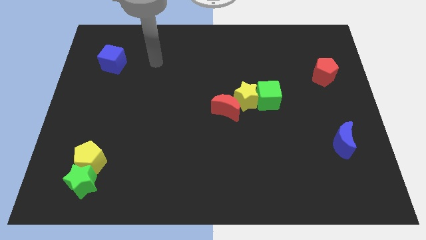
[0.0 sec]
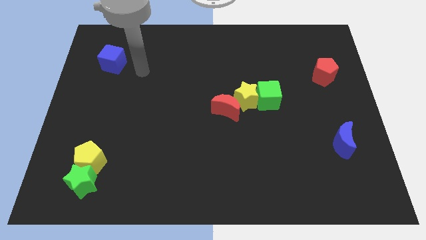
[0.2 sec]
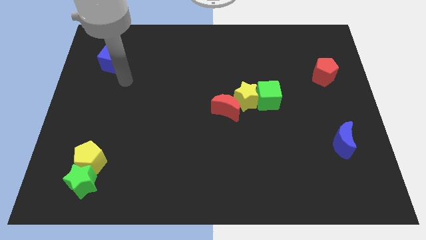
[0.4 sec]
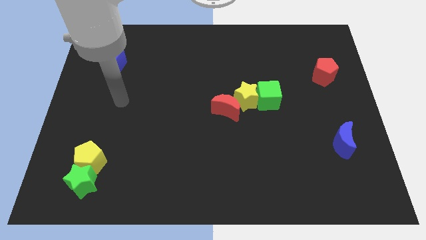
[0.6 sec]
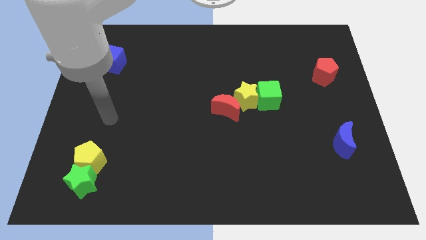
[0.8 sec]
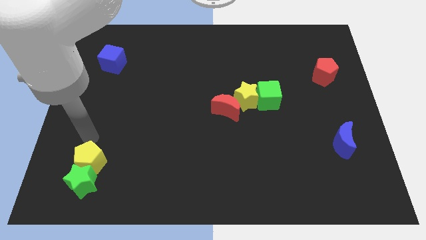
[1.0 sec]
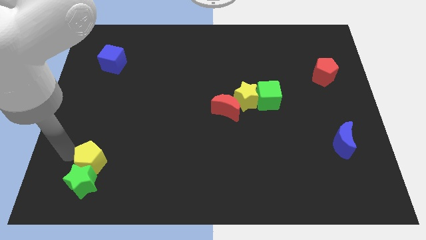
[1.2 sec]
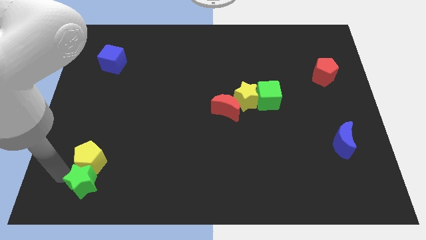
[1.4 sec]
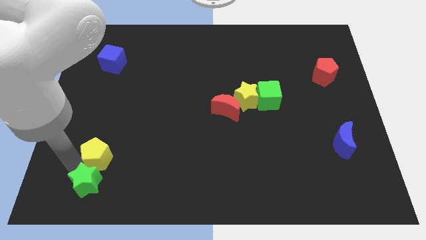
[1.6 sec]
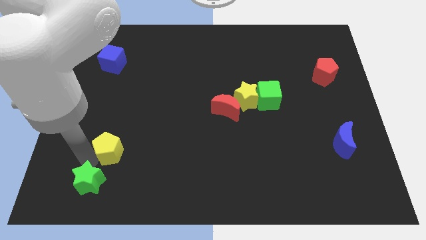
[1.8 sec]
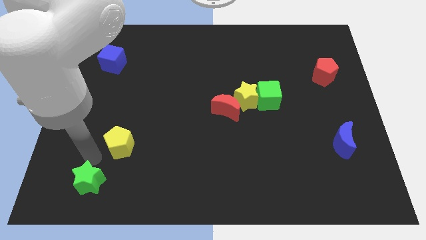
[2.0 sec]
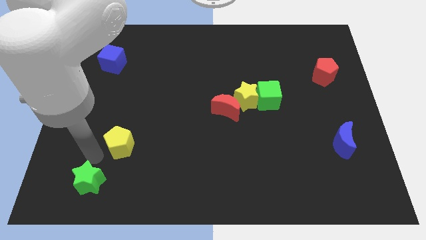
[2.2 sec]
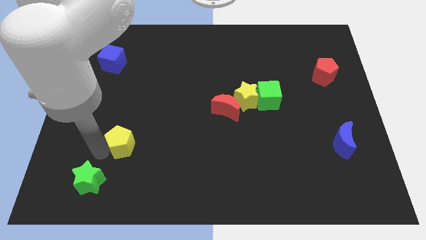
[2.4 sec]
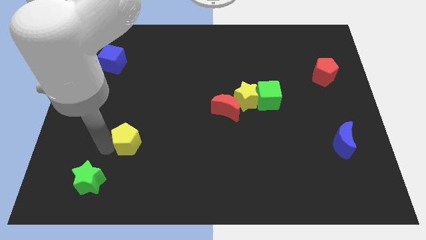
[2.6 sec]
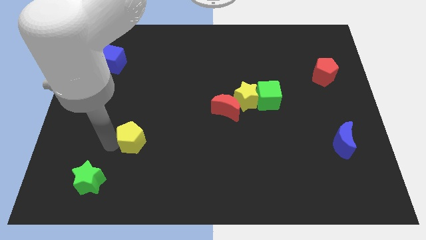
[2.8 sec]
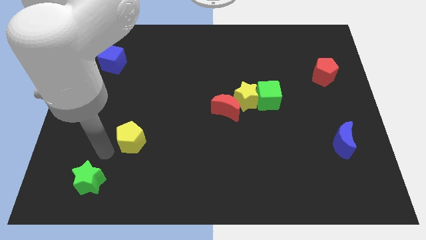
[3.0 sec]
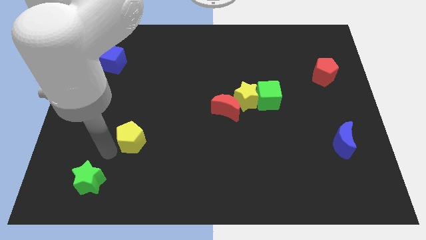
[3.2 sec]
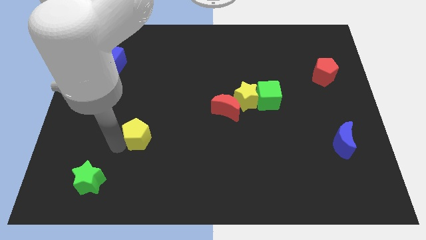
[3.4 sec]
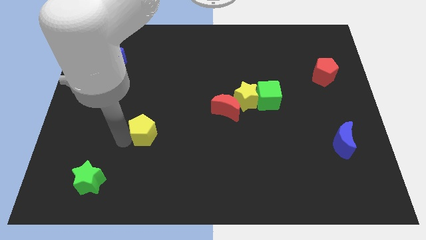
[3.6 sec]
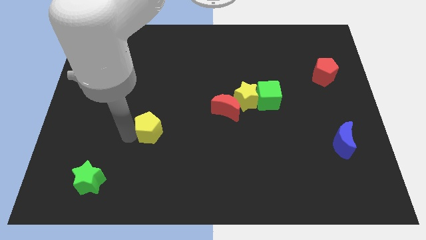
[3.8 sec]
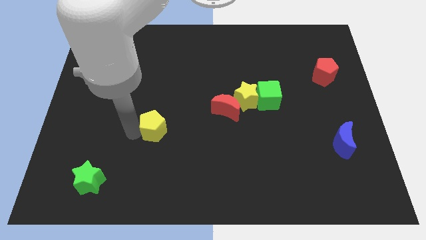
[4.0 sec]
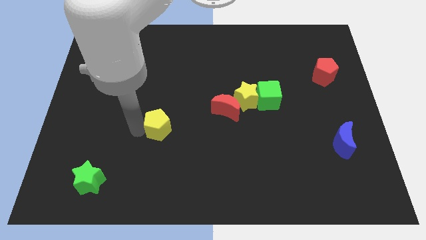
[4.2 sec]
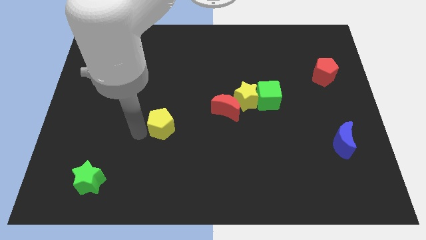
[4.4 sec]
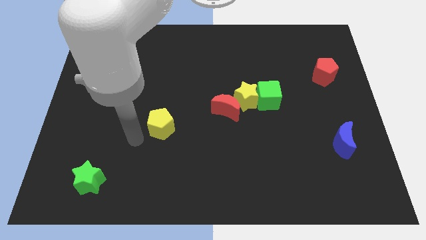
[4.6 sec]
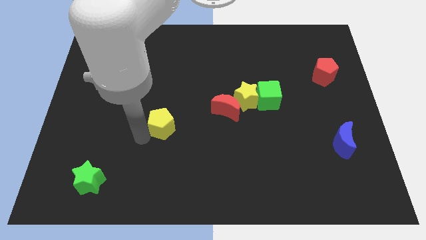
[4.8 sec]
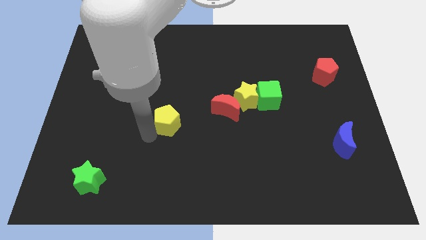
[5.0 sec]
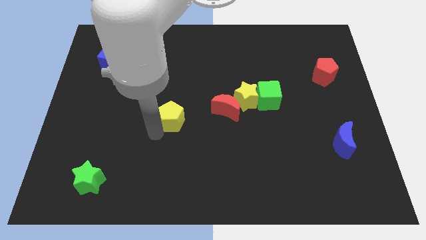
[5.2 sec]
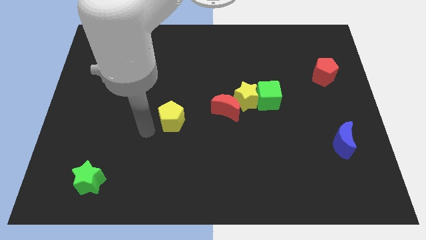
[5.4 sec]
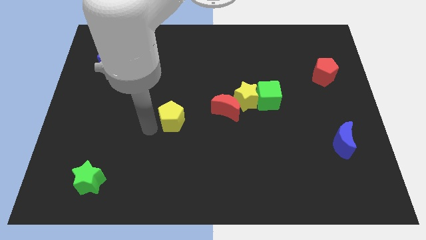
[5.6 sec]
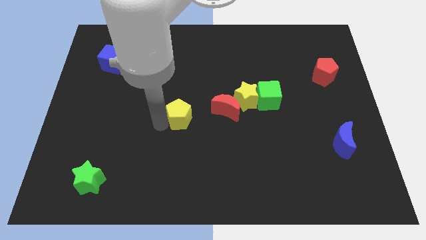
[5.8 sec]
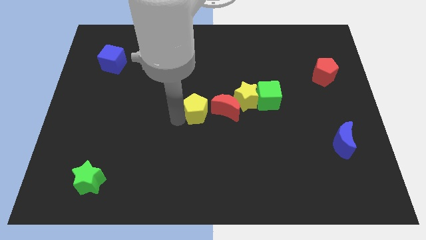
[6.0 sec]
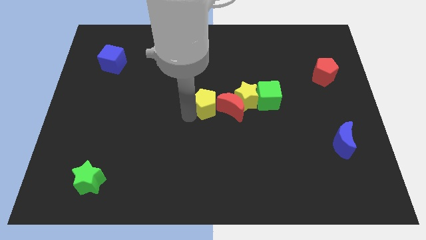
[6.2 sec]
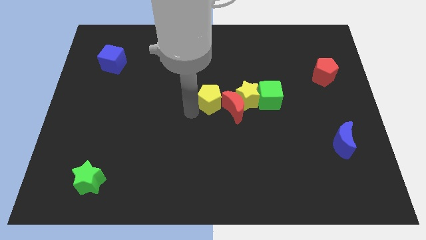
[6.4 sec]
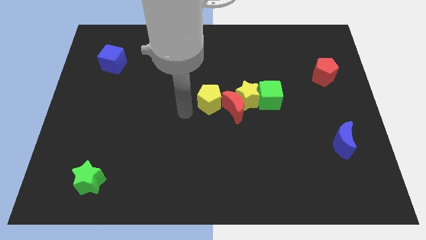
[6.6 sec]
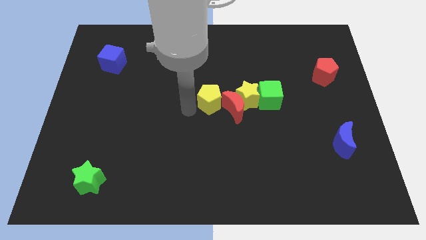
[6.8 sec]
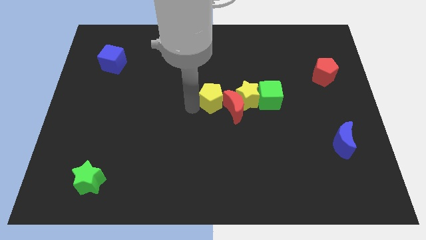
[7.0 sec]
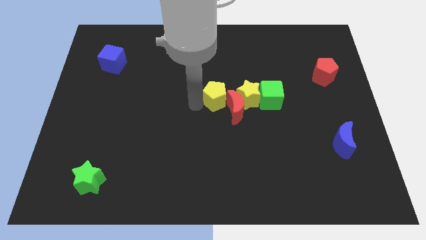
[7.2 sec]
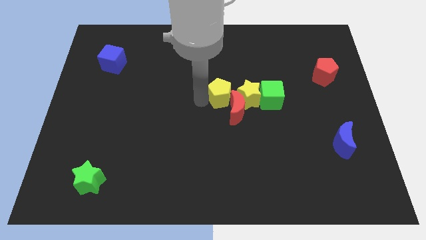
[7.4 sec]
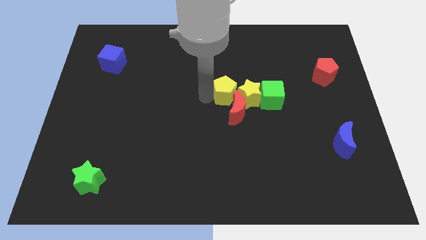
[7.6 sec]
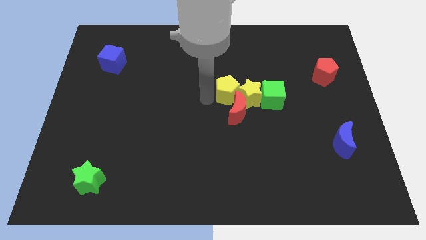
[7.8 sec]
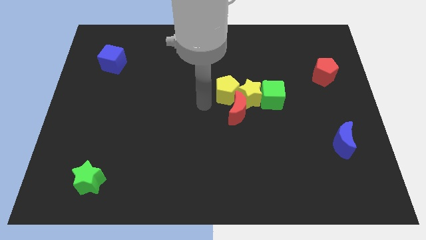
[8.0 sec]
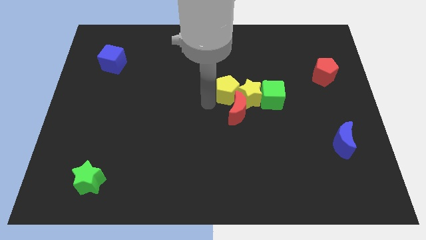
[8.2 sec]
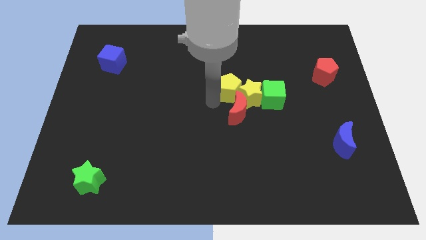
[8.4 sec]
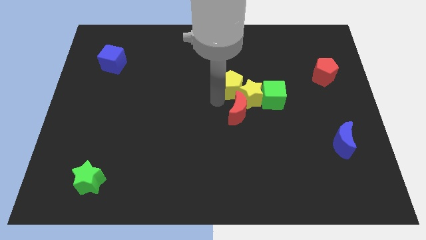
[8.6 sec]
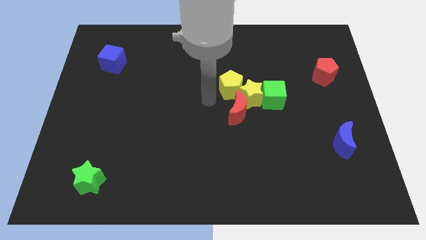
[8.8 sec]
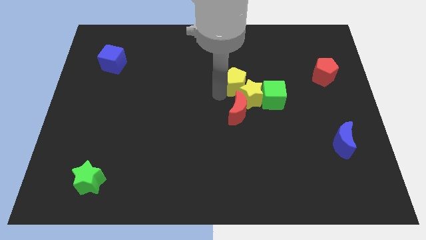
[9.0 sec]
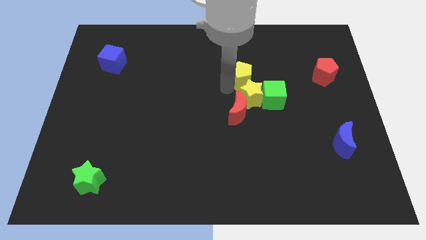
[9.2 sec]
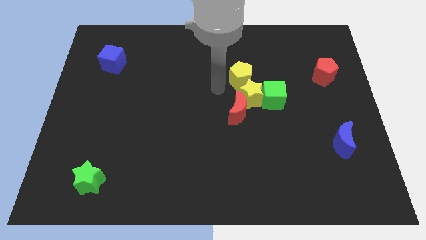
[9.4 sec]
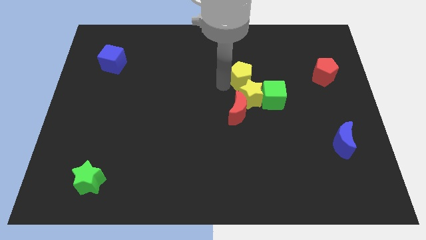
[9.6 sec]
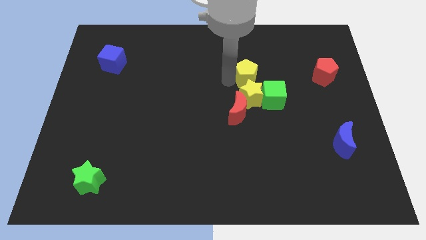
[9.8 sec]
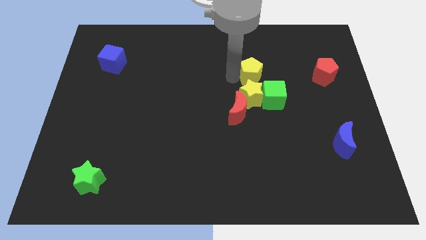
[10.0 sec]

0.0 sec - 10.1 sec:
slide the yellow pentagon above the green cube

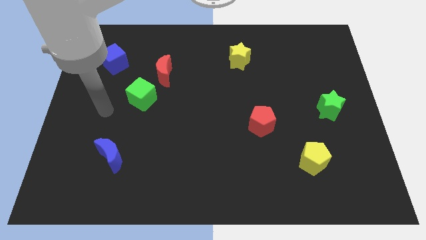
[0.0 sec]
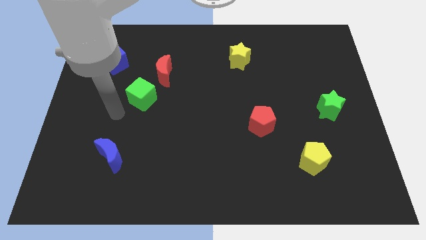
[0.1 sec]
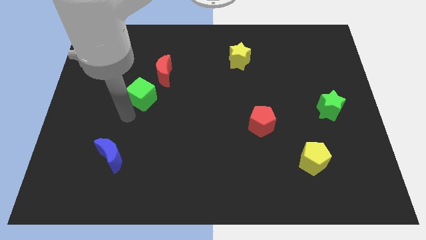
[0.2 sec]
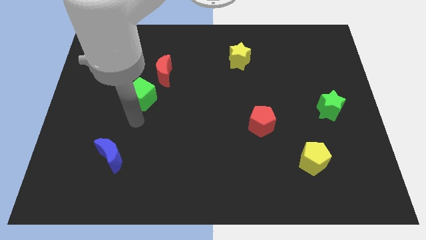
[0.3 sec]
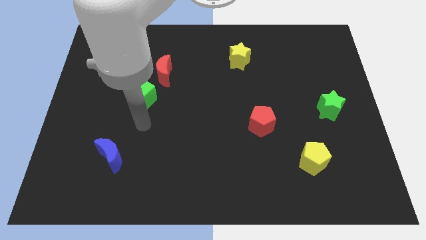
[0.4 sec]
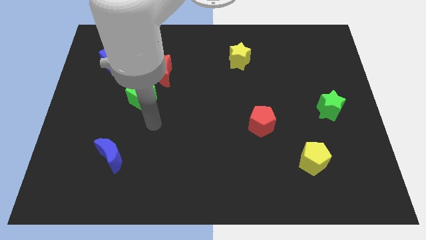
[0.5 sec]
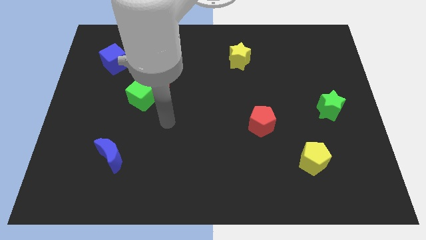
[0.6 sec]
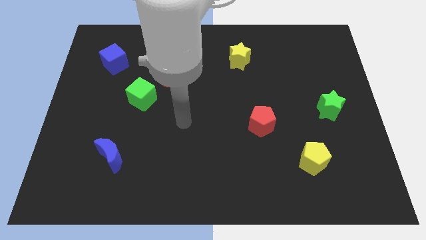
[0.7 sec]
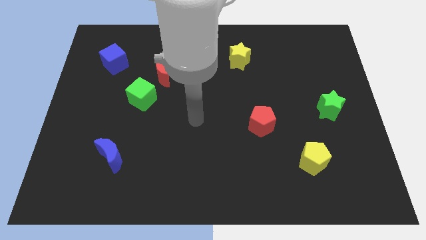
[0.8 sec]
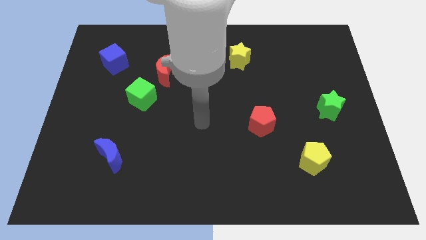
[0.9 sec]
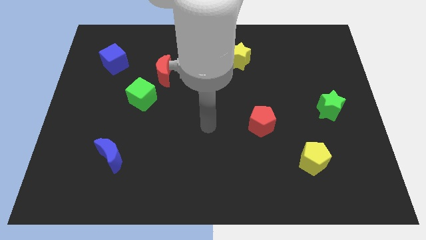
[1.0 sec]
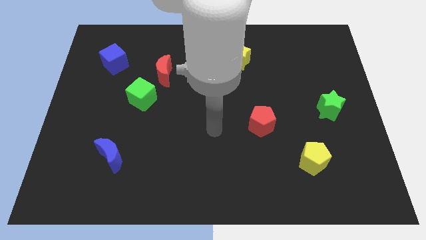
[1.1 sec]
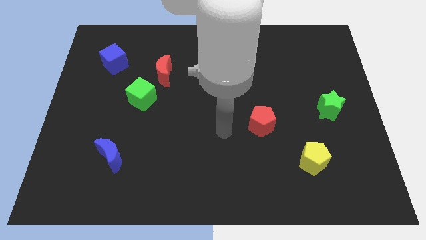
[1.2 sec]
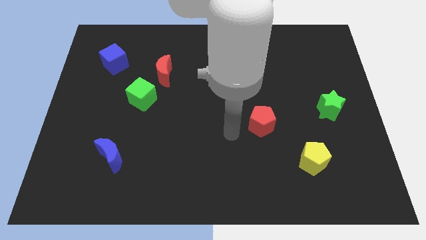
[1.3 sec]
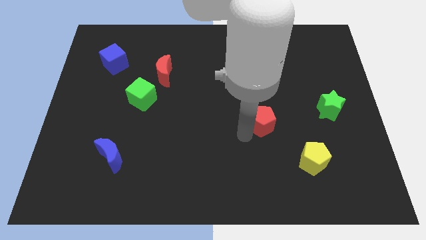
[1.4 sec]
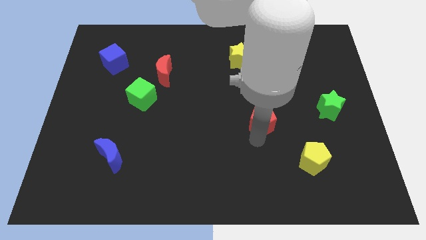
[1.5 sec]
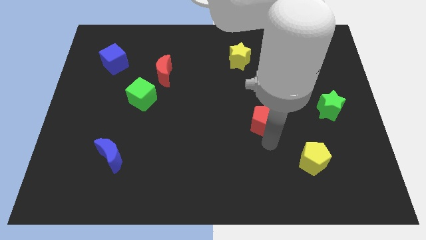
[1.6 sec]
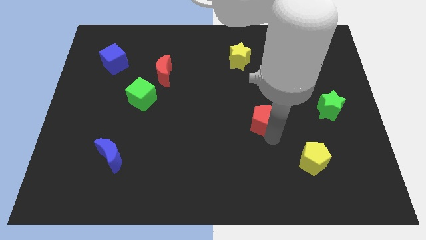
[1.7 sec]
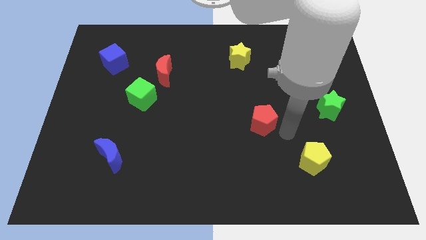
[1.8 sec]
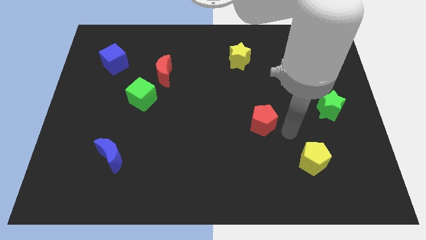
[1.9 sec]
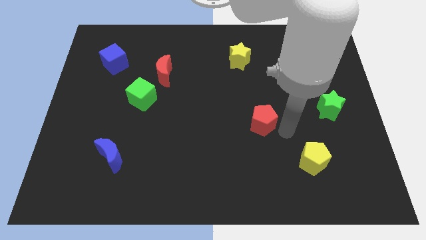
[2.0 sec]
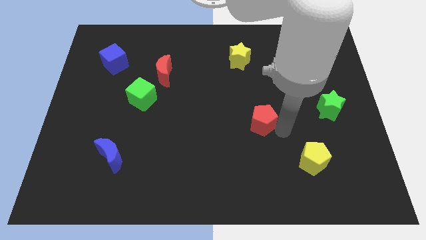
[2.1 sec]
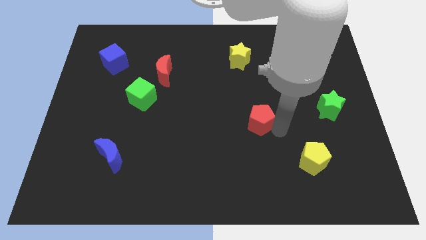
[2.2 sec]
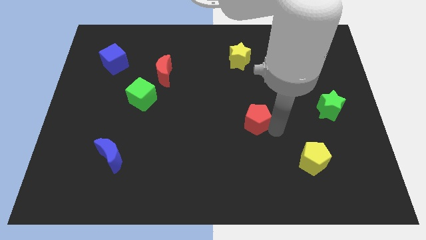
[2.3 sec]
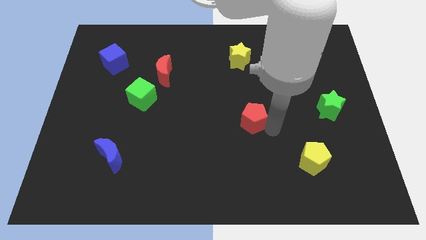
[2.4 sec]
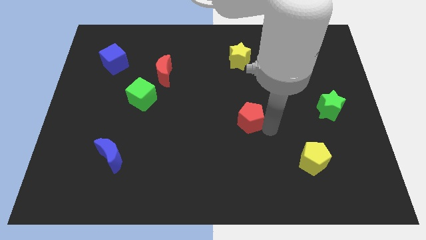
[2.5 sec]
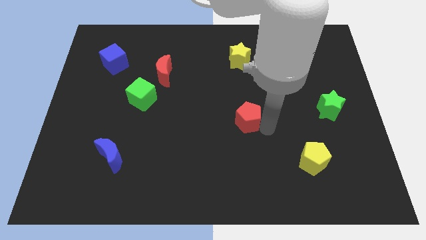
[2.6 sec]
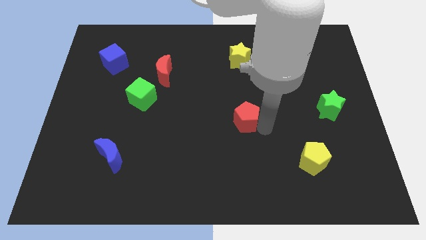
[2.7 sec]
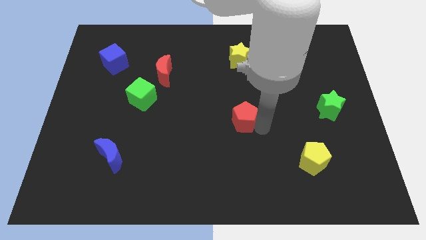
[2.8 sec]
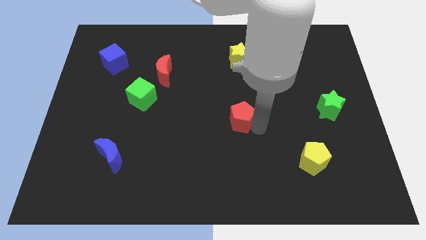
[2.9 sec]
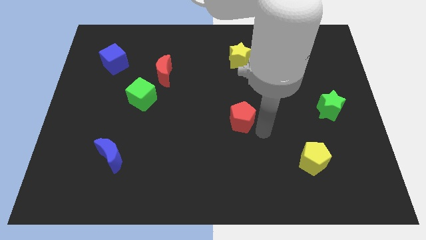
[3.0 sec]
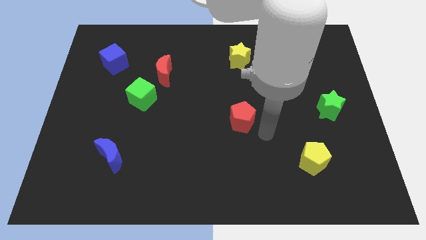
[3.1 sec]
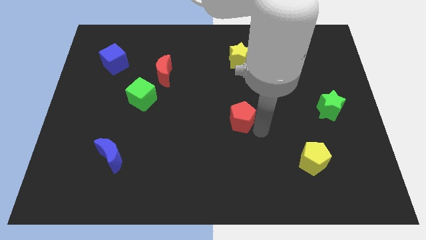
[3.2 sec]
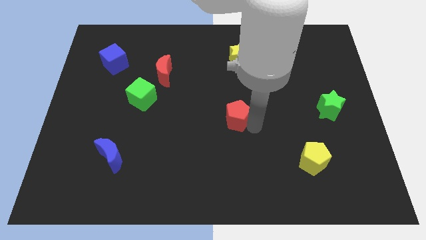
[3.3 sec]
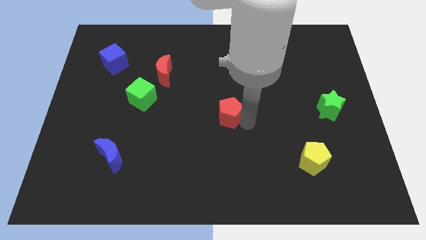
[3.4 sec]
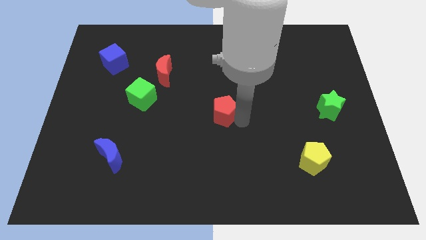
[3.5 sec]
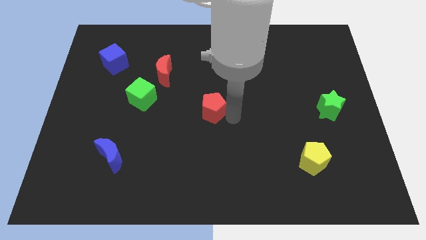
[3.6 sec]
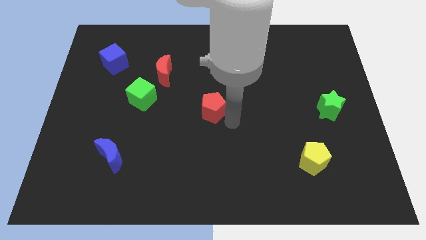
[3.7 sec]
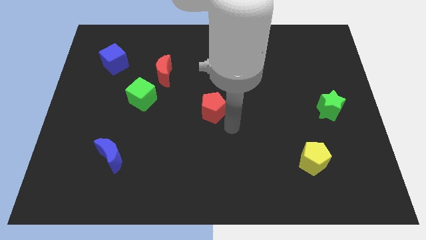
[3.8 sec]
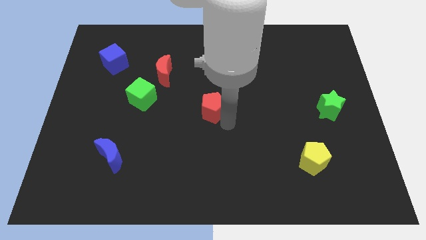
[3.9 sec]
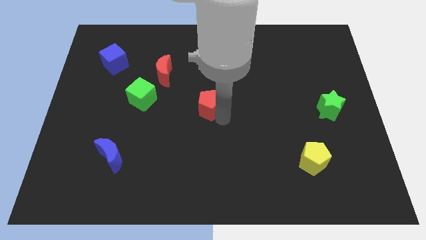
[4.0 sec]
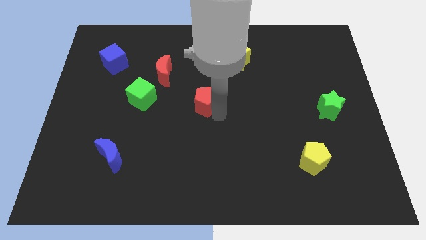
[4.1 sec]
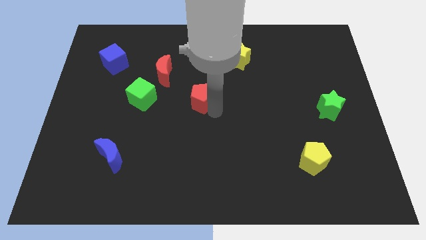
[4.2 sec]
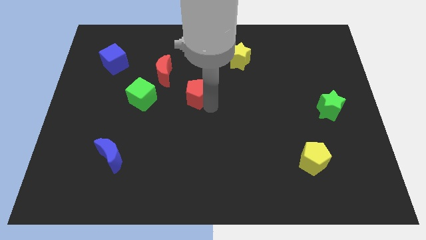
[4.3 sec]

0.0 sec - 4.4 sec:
slide the red pentagon to the bottom right side of the red moon
